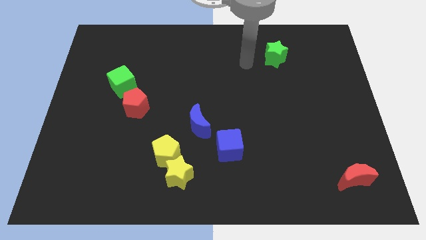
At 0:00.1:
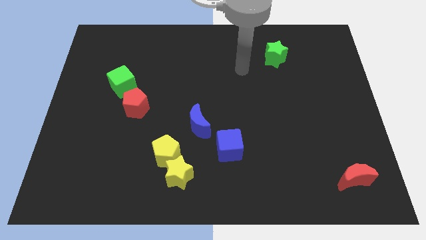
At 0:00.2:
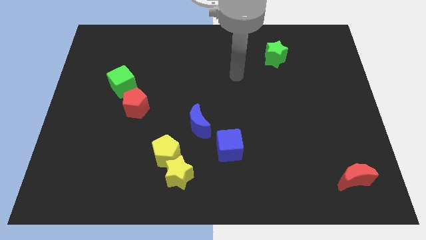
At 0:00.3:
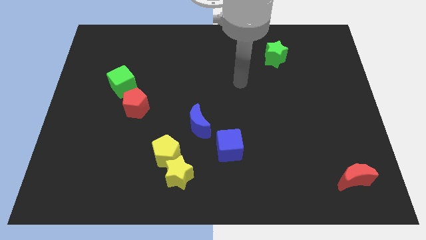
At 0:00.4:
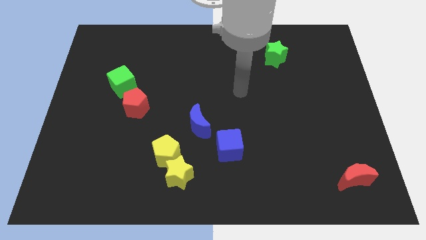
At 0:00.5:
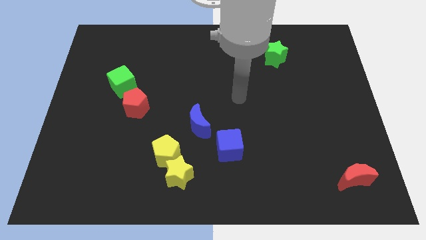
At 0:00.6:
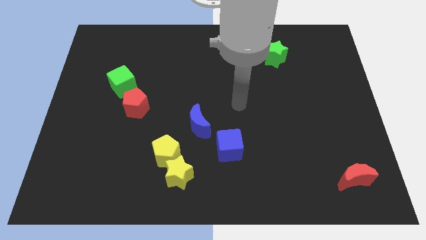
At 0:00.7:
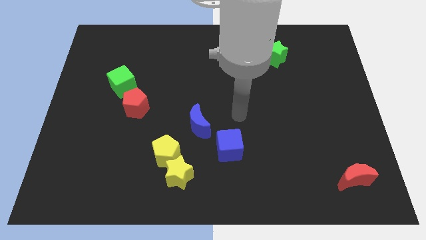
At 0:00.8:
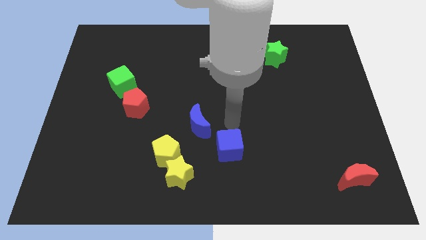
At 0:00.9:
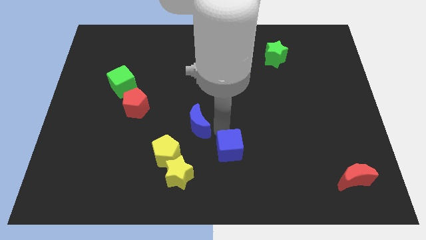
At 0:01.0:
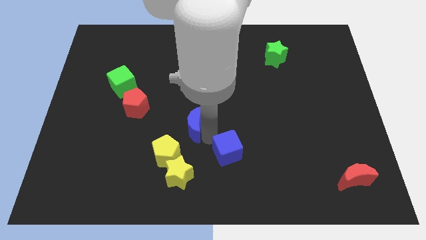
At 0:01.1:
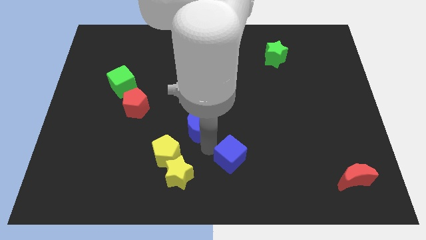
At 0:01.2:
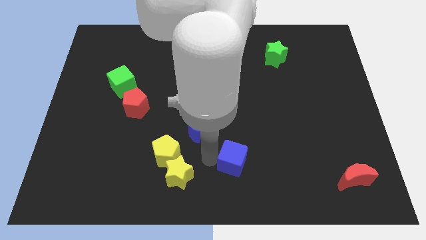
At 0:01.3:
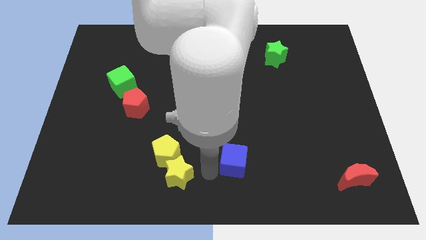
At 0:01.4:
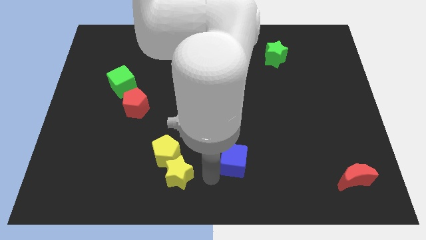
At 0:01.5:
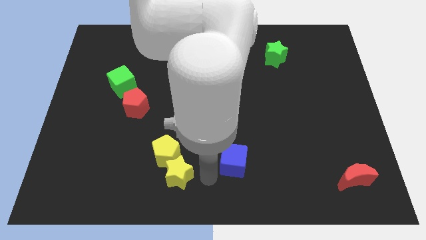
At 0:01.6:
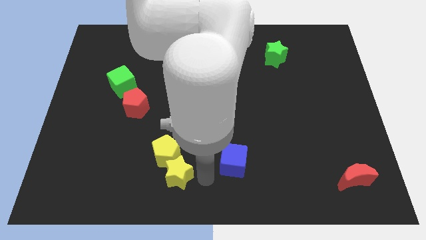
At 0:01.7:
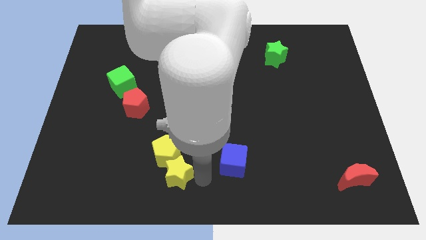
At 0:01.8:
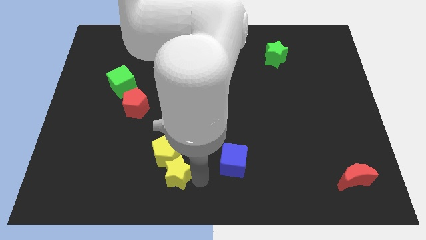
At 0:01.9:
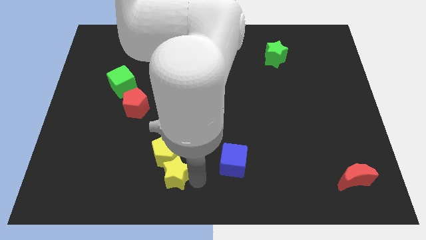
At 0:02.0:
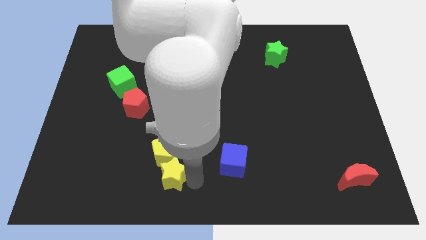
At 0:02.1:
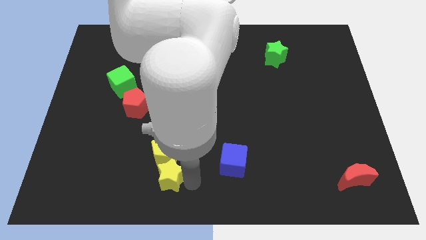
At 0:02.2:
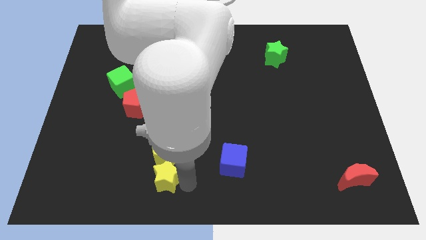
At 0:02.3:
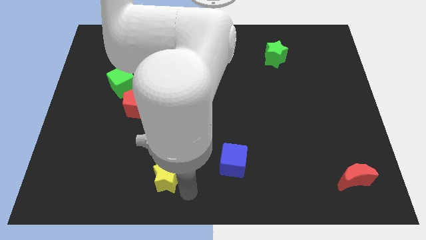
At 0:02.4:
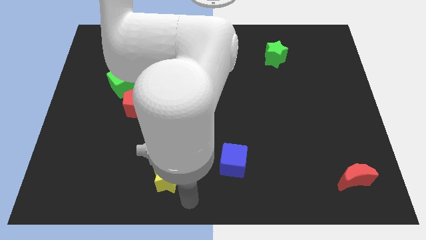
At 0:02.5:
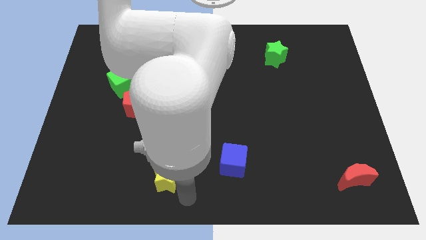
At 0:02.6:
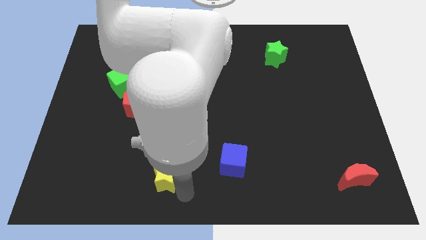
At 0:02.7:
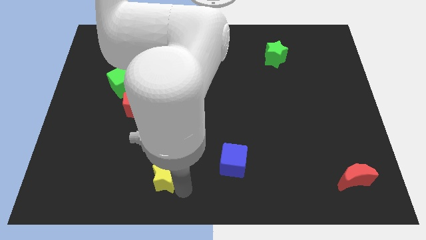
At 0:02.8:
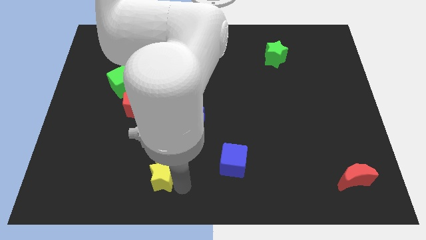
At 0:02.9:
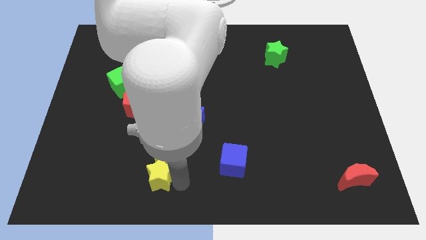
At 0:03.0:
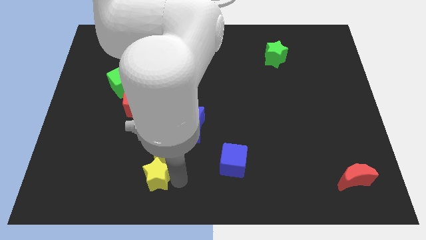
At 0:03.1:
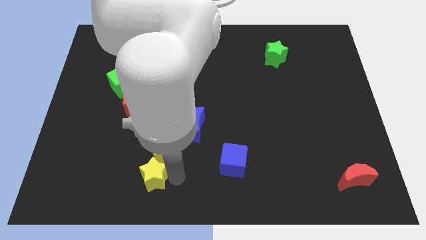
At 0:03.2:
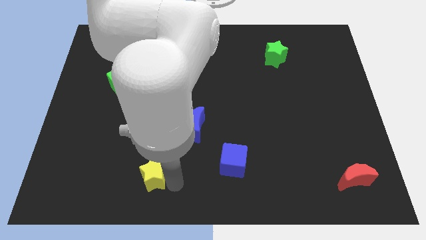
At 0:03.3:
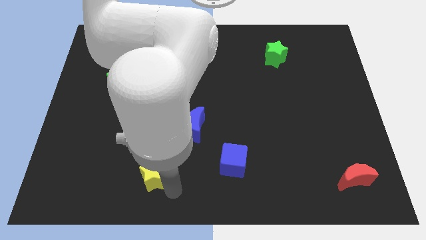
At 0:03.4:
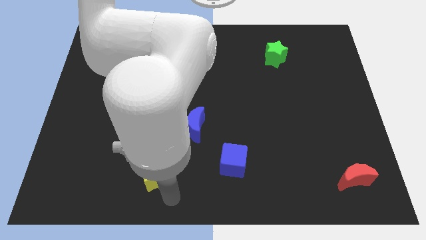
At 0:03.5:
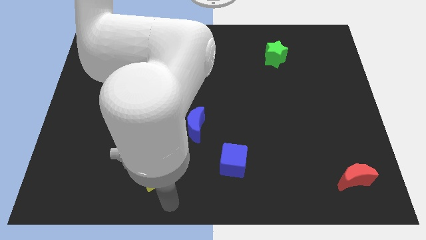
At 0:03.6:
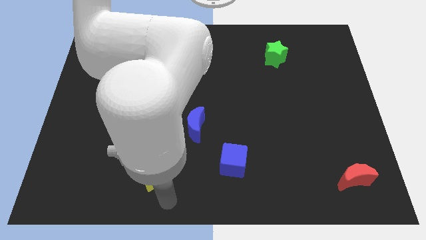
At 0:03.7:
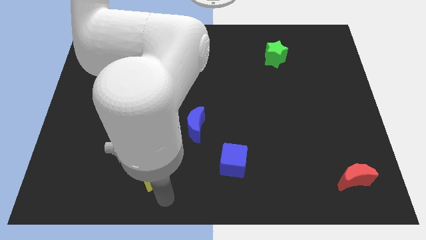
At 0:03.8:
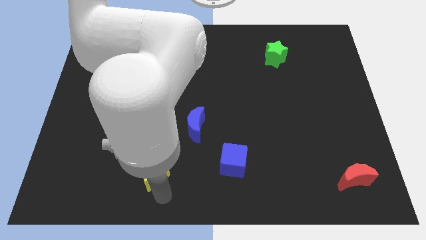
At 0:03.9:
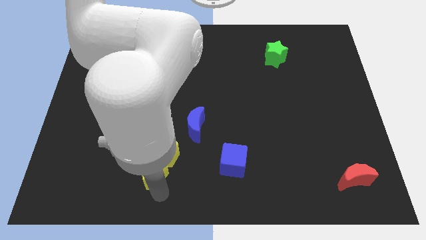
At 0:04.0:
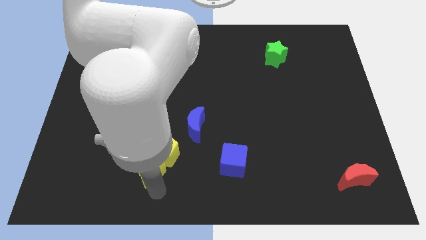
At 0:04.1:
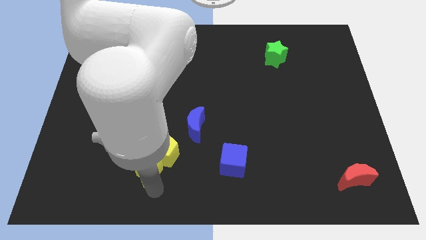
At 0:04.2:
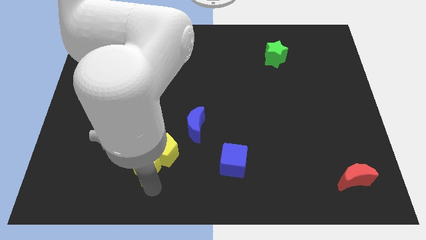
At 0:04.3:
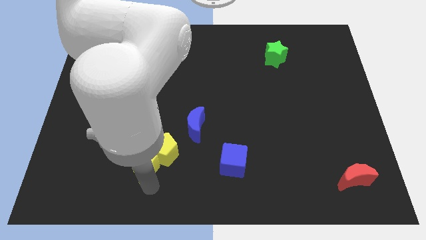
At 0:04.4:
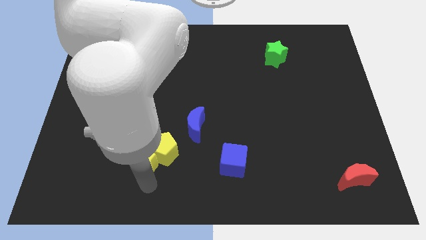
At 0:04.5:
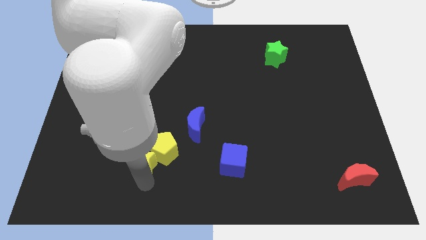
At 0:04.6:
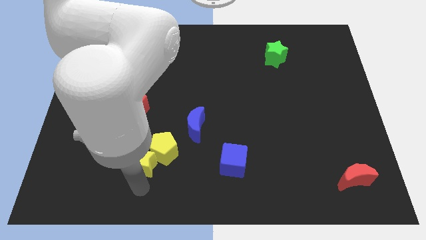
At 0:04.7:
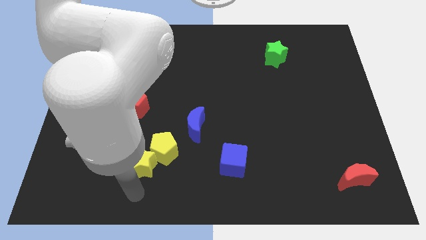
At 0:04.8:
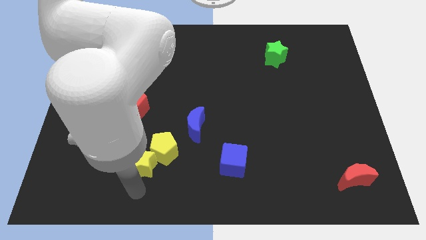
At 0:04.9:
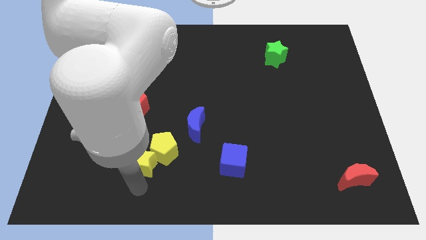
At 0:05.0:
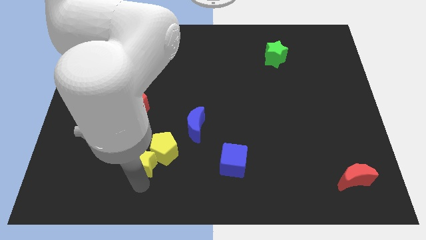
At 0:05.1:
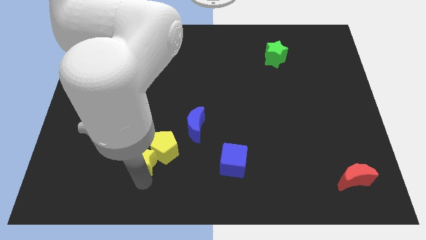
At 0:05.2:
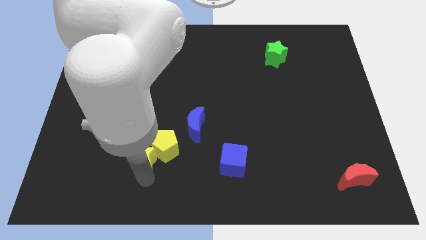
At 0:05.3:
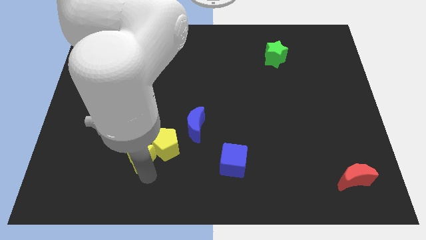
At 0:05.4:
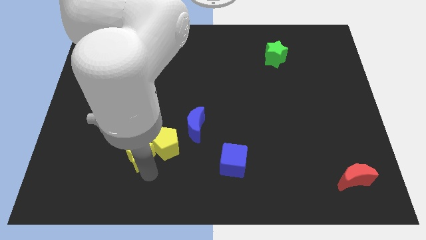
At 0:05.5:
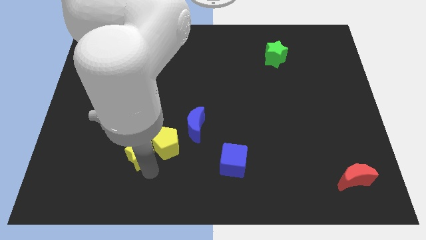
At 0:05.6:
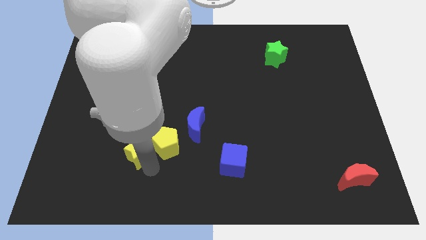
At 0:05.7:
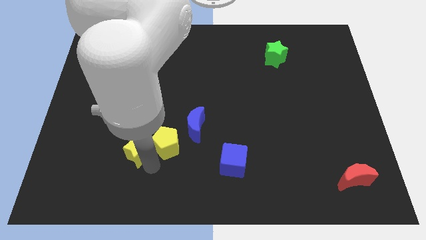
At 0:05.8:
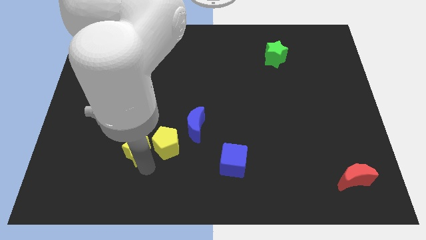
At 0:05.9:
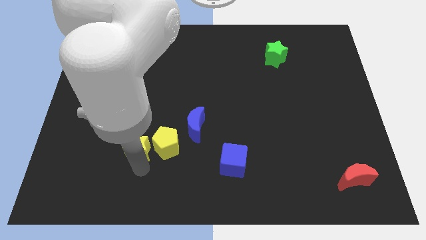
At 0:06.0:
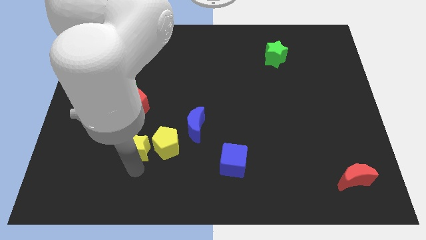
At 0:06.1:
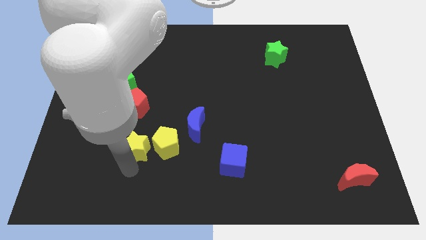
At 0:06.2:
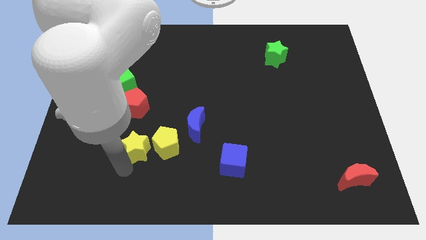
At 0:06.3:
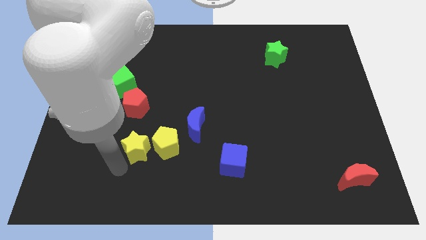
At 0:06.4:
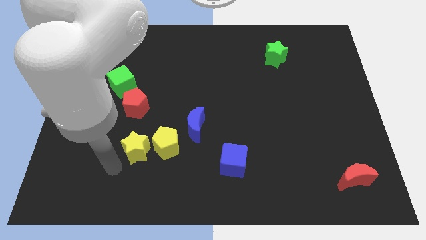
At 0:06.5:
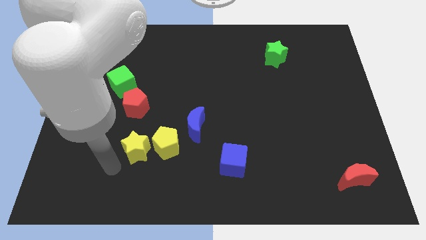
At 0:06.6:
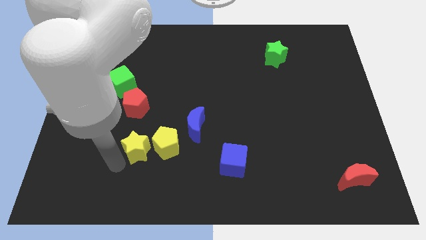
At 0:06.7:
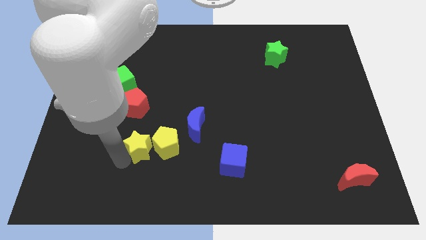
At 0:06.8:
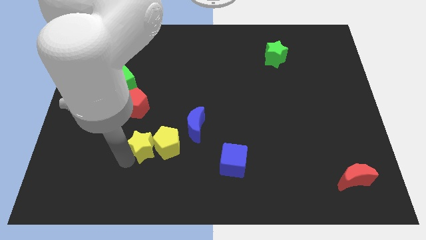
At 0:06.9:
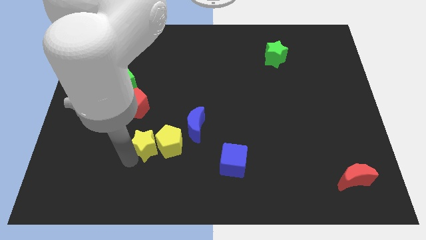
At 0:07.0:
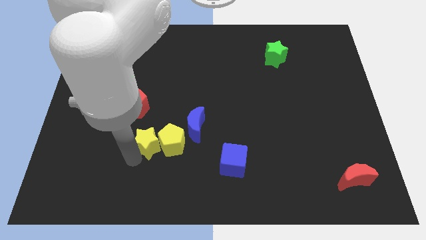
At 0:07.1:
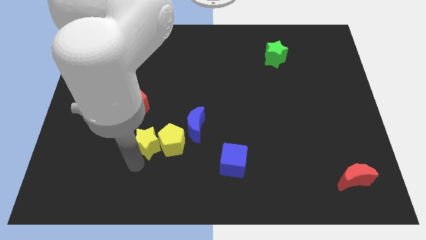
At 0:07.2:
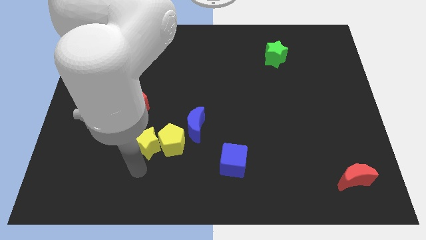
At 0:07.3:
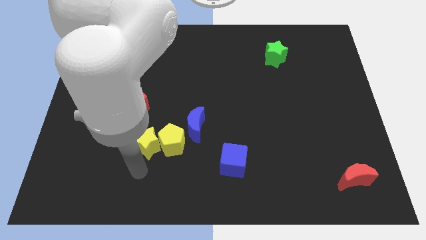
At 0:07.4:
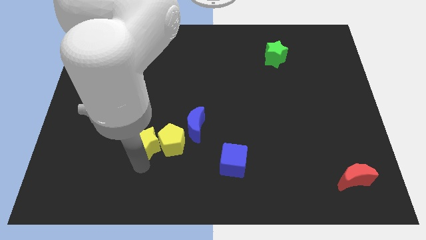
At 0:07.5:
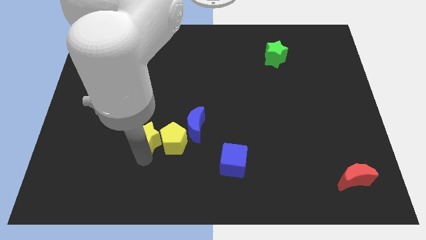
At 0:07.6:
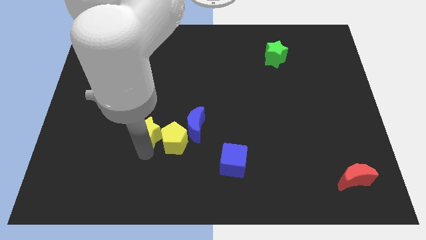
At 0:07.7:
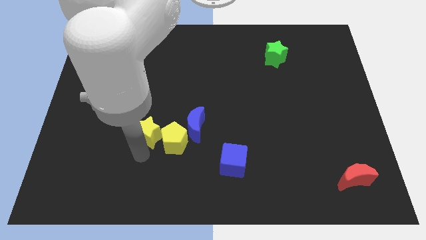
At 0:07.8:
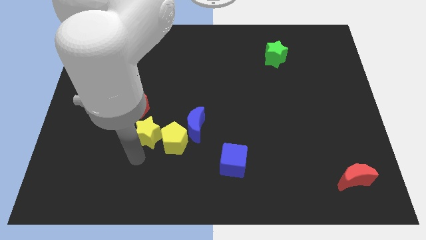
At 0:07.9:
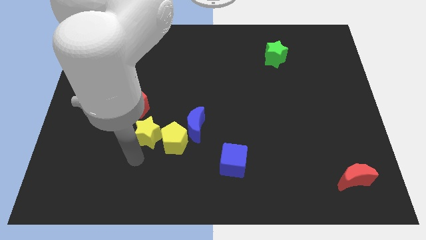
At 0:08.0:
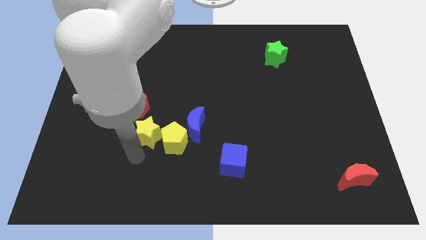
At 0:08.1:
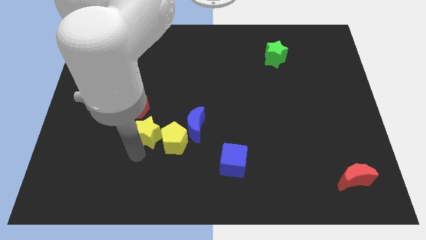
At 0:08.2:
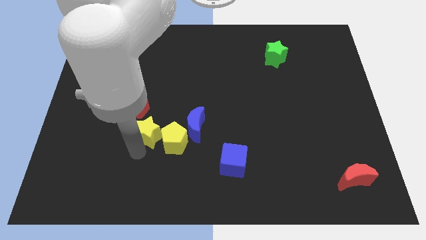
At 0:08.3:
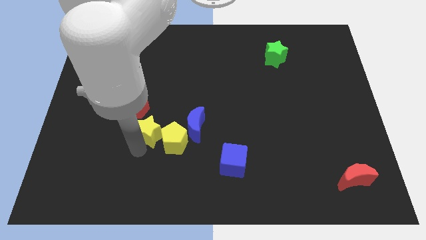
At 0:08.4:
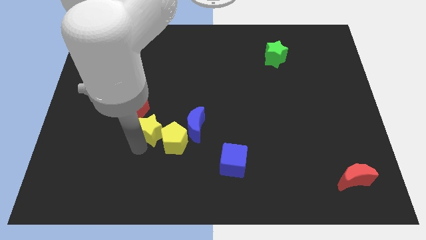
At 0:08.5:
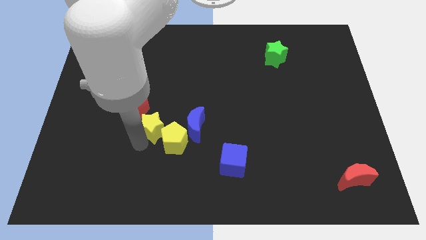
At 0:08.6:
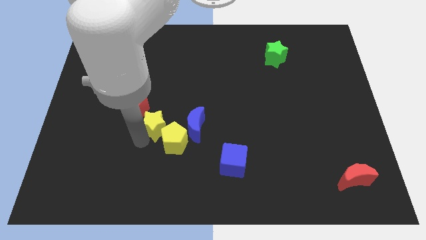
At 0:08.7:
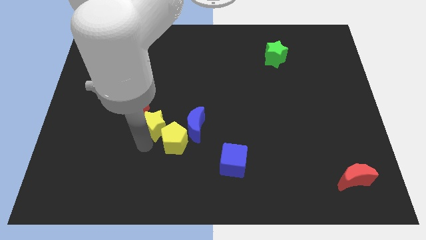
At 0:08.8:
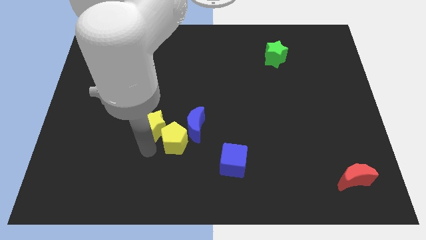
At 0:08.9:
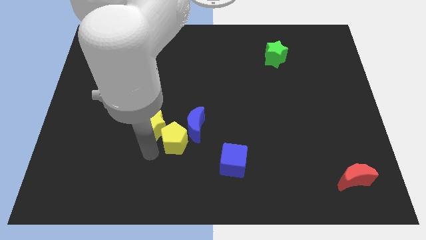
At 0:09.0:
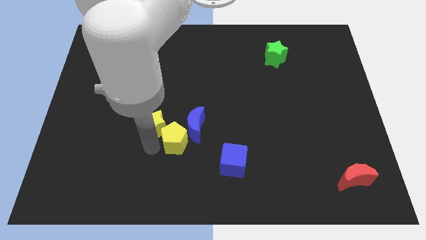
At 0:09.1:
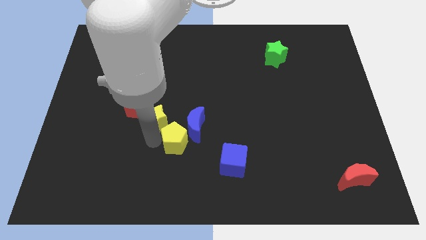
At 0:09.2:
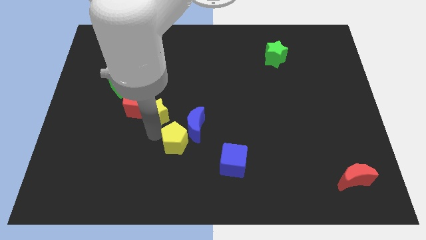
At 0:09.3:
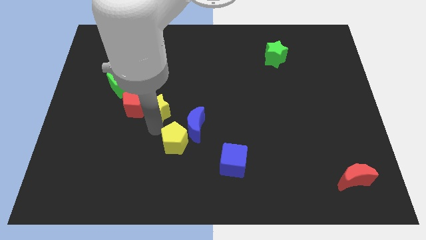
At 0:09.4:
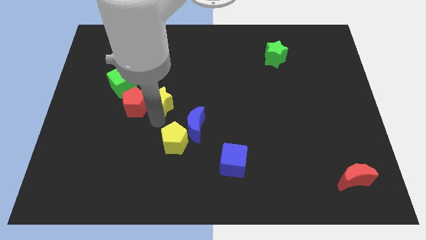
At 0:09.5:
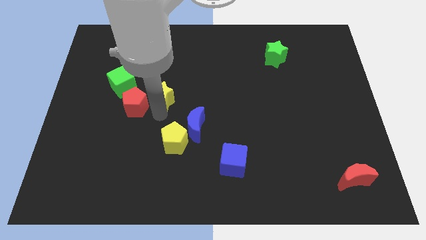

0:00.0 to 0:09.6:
slide the yellow star to the right of the green cube
